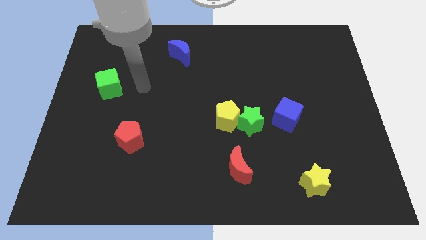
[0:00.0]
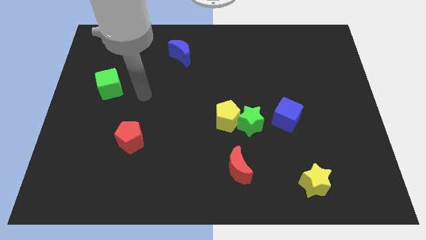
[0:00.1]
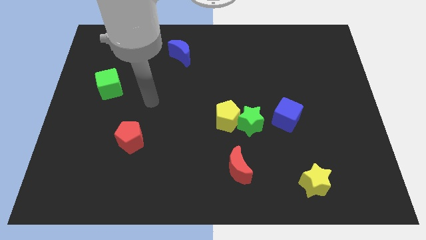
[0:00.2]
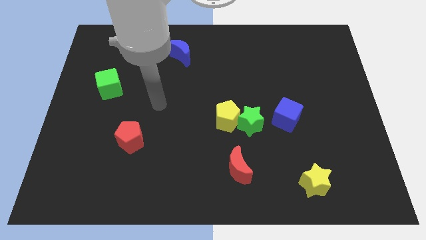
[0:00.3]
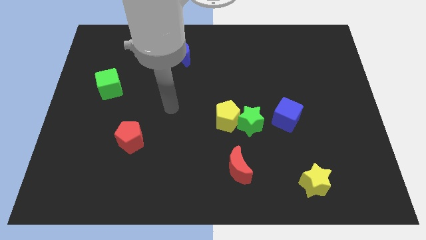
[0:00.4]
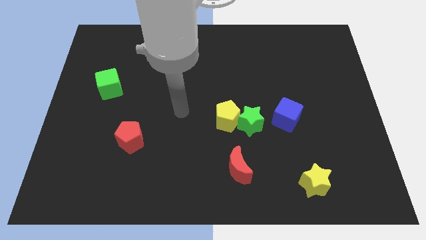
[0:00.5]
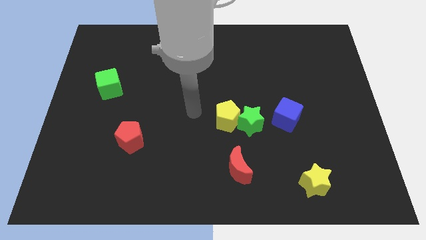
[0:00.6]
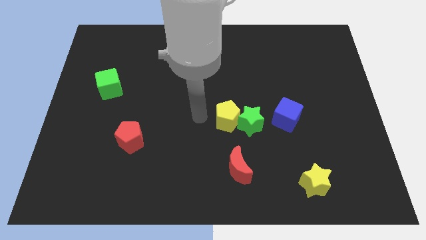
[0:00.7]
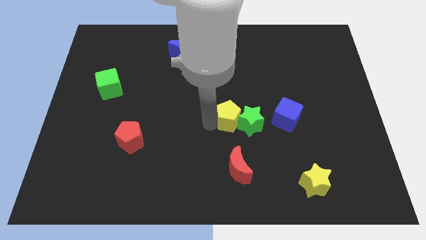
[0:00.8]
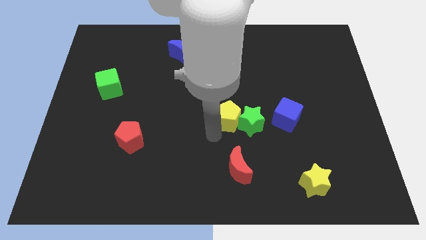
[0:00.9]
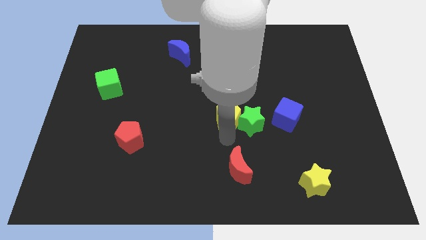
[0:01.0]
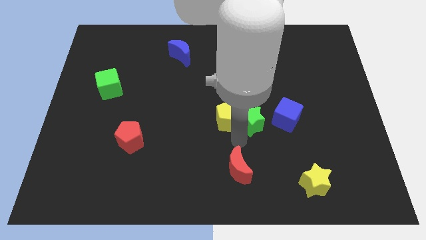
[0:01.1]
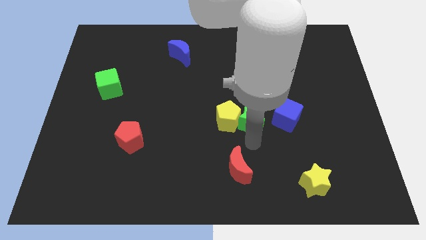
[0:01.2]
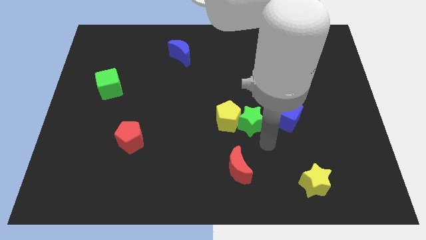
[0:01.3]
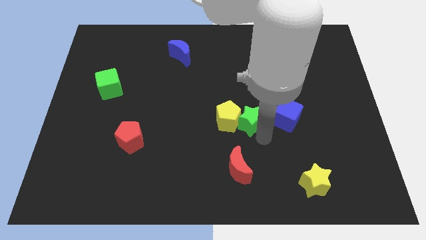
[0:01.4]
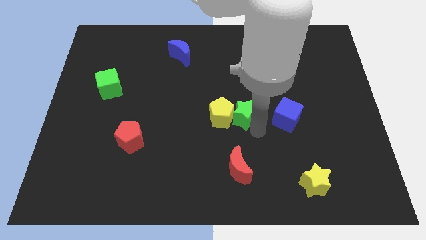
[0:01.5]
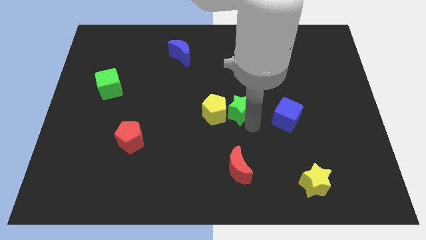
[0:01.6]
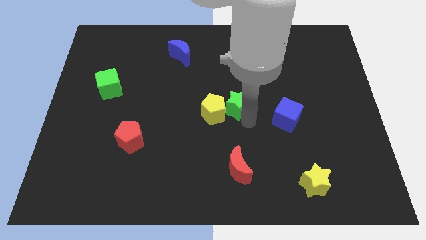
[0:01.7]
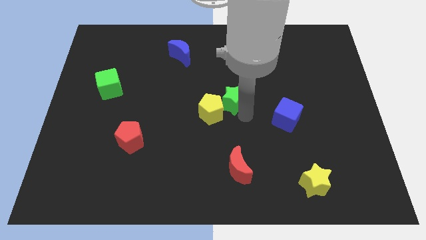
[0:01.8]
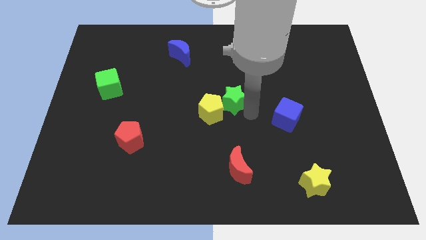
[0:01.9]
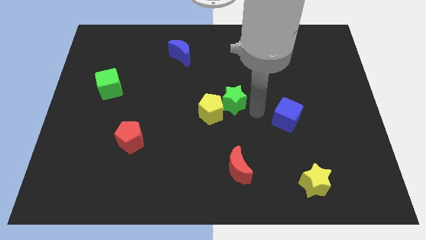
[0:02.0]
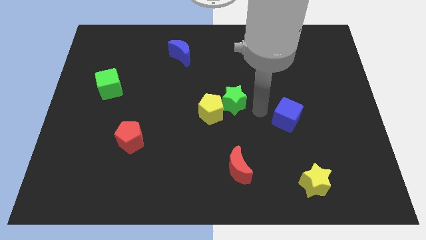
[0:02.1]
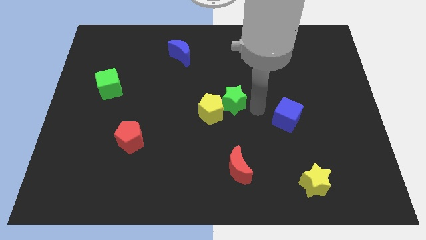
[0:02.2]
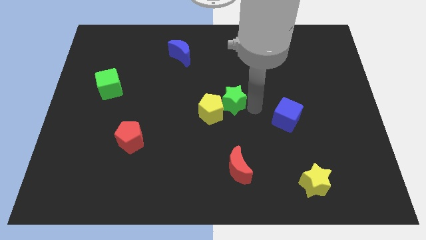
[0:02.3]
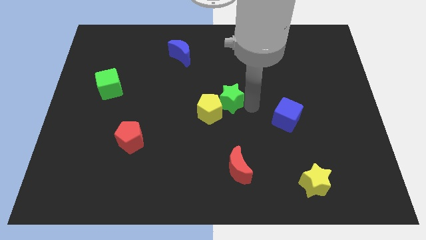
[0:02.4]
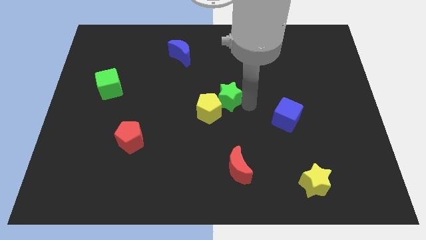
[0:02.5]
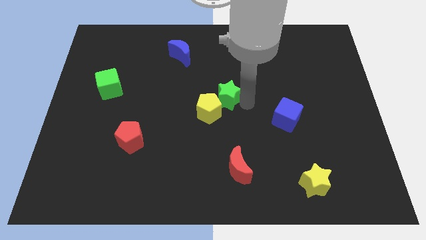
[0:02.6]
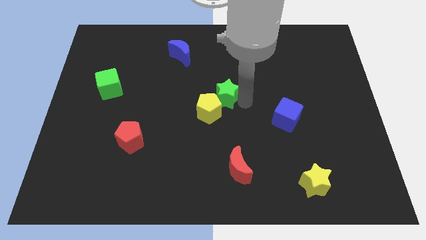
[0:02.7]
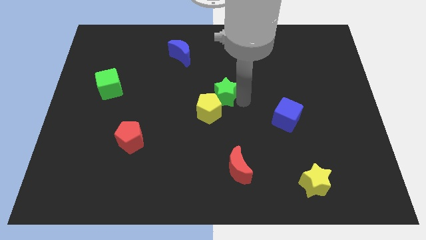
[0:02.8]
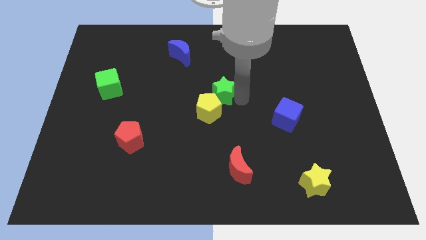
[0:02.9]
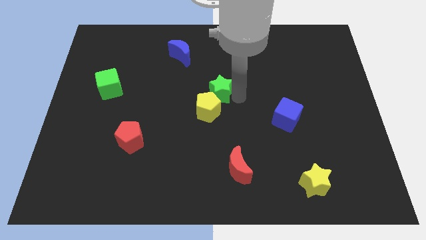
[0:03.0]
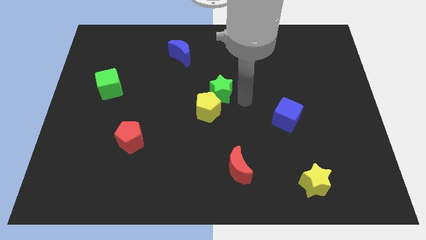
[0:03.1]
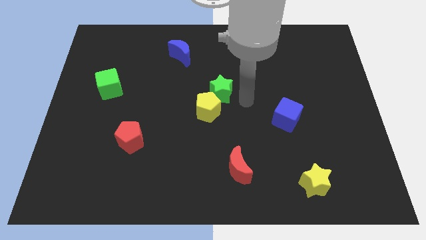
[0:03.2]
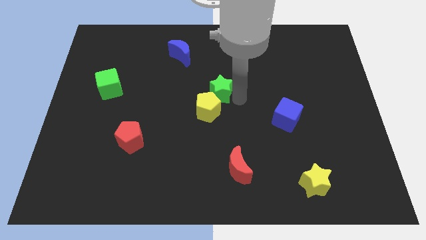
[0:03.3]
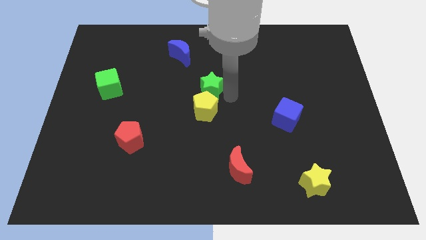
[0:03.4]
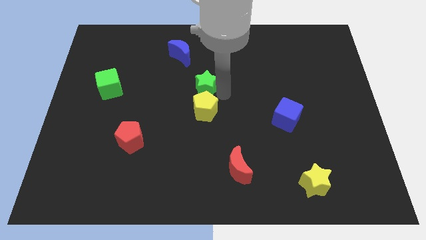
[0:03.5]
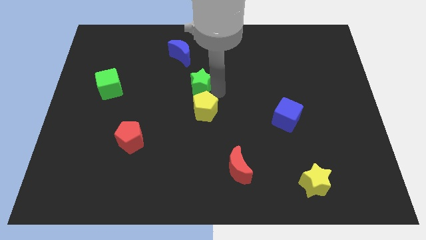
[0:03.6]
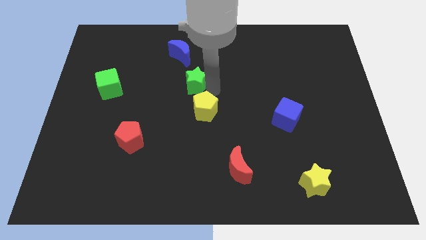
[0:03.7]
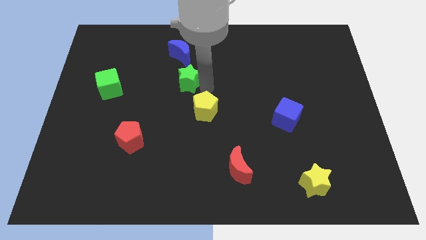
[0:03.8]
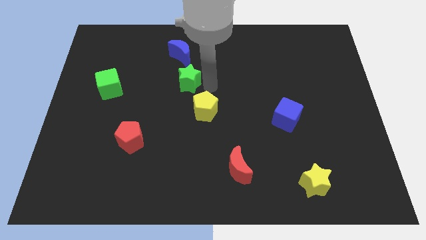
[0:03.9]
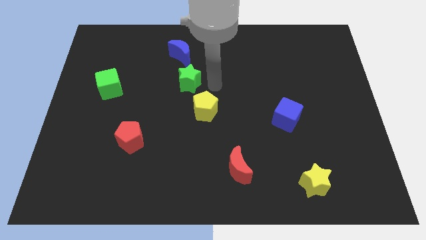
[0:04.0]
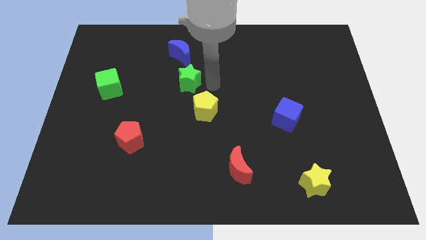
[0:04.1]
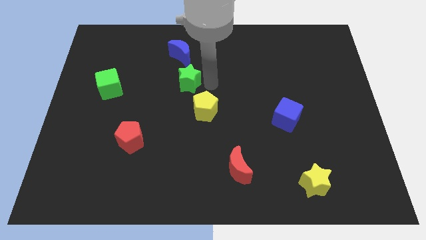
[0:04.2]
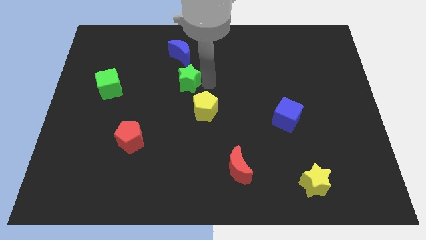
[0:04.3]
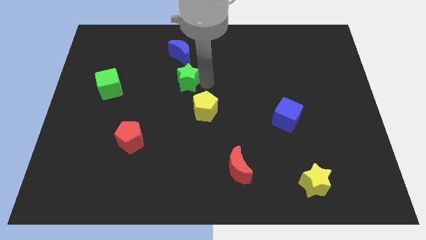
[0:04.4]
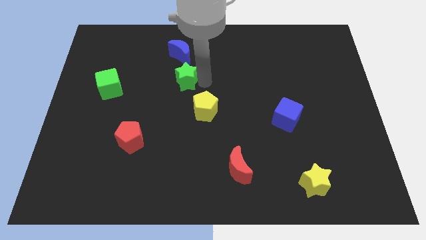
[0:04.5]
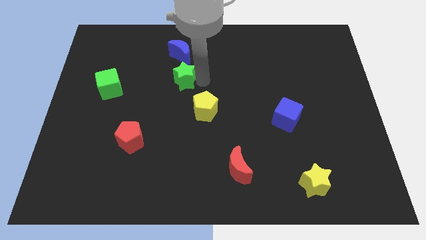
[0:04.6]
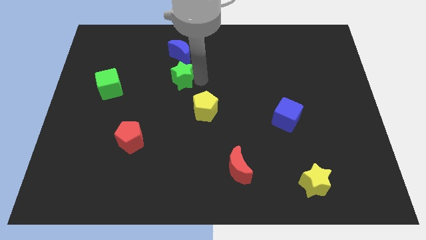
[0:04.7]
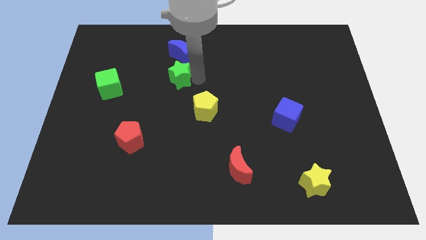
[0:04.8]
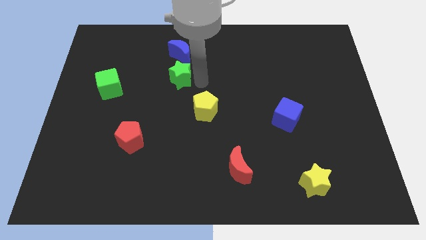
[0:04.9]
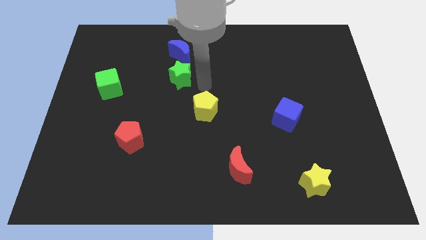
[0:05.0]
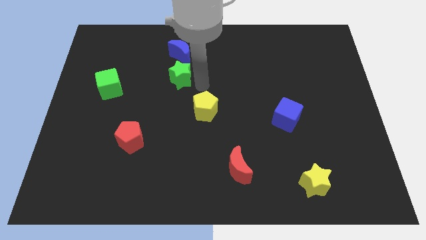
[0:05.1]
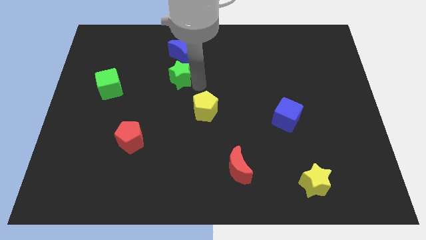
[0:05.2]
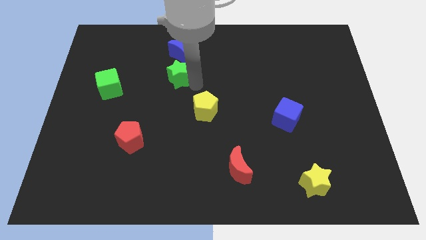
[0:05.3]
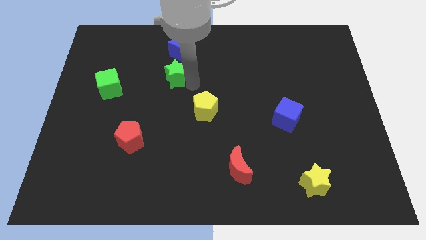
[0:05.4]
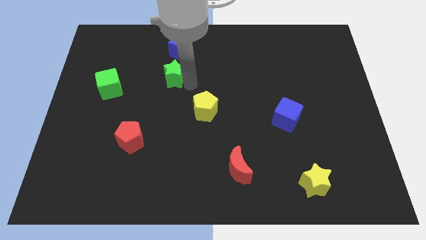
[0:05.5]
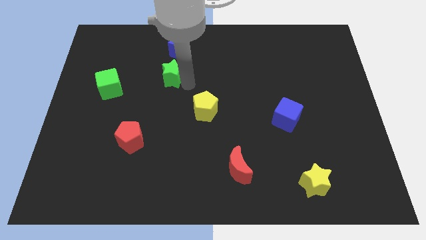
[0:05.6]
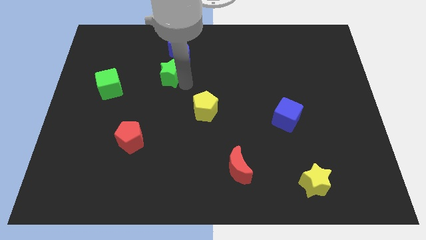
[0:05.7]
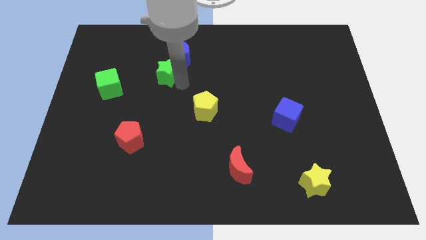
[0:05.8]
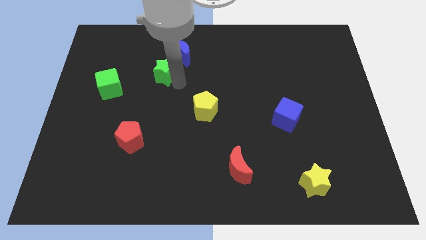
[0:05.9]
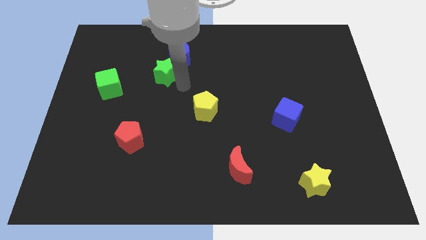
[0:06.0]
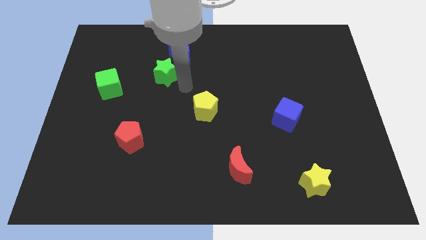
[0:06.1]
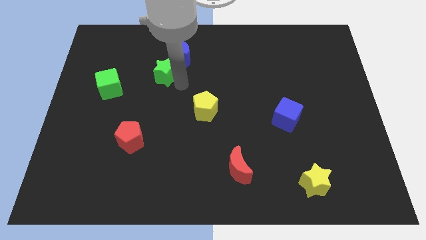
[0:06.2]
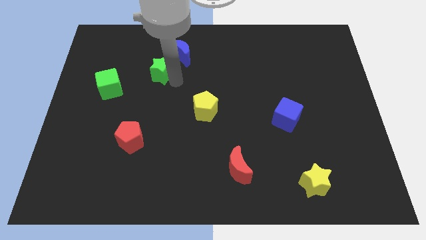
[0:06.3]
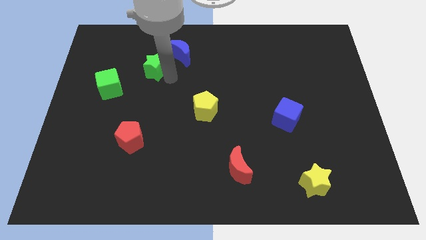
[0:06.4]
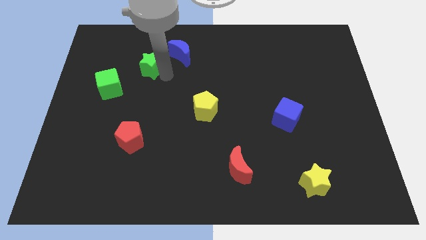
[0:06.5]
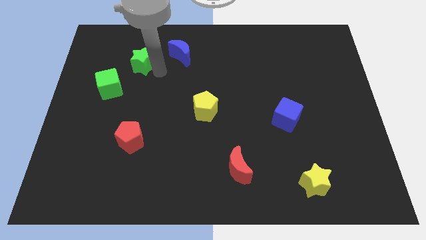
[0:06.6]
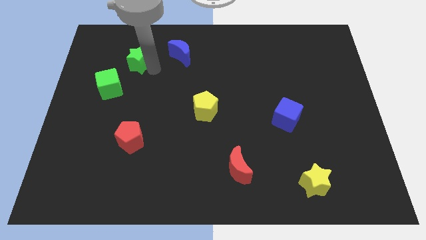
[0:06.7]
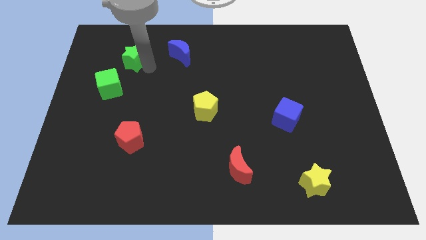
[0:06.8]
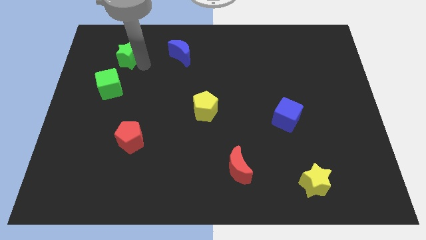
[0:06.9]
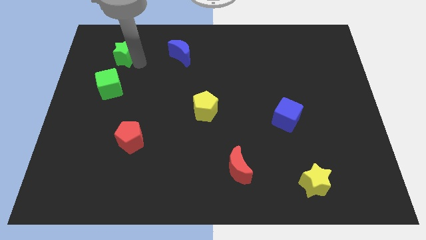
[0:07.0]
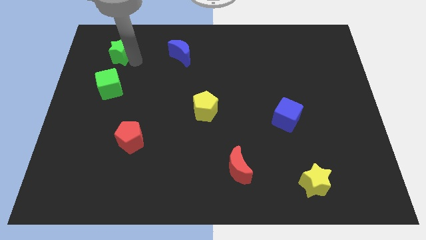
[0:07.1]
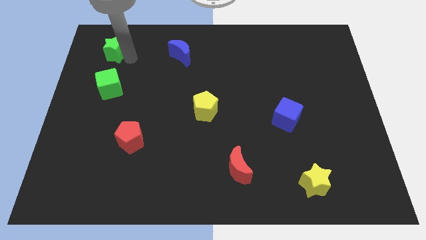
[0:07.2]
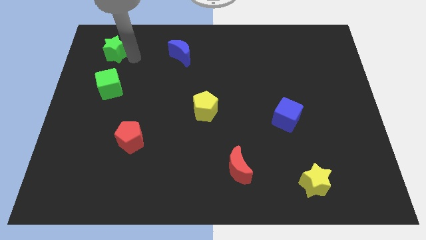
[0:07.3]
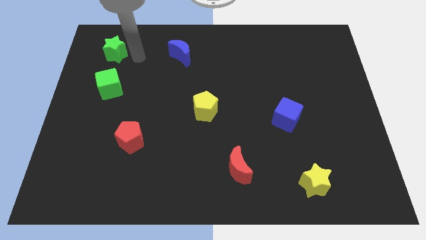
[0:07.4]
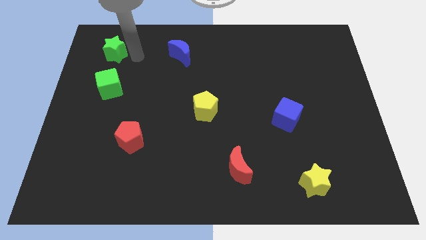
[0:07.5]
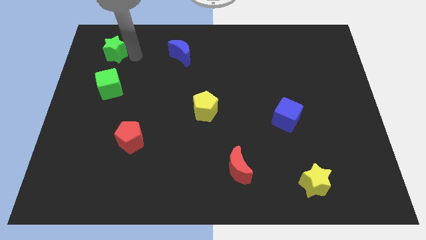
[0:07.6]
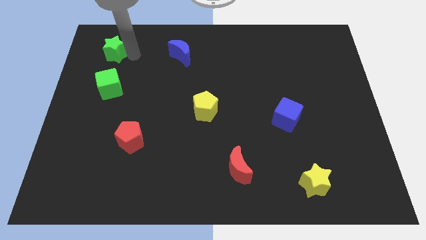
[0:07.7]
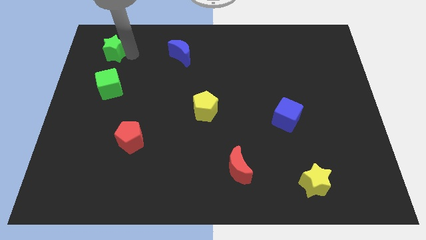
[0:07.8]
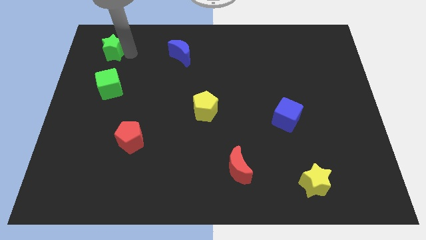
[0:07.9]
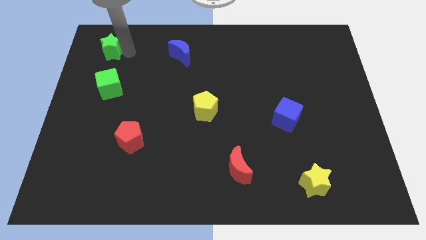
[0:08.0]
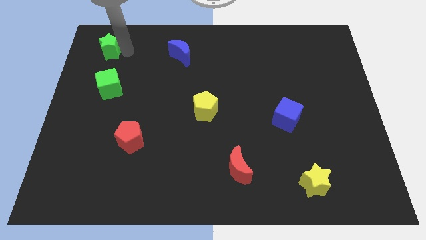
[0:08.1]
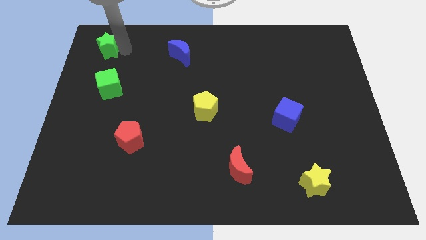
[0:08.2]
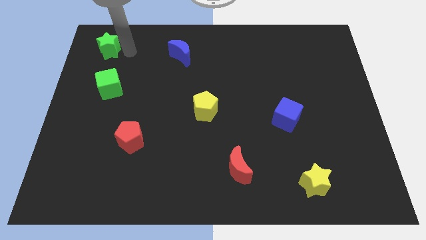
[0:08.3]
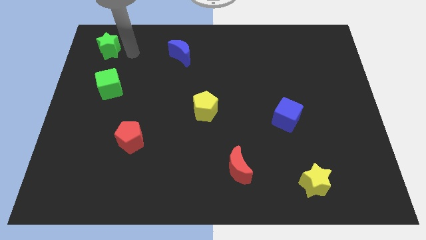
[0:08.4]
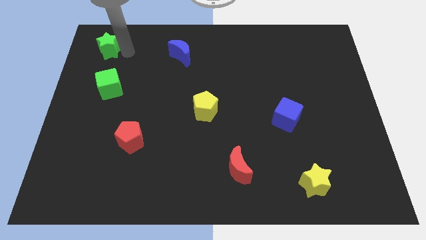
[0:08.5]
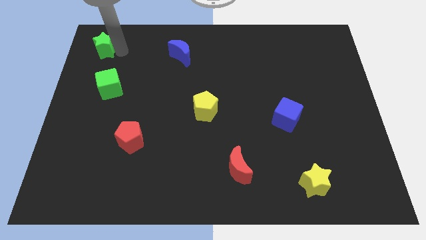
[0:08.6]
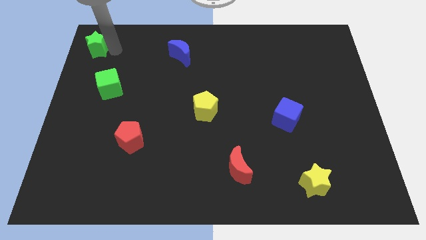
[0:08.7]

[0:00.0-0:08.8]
slide the green star to the top left
